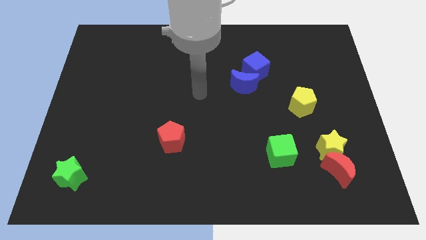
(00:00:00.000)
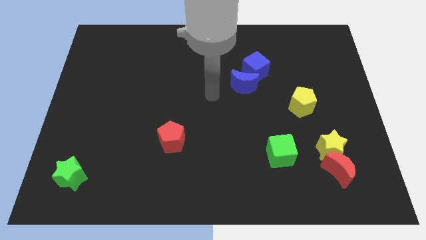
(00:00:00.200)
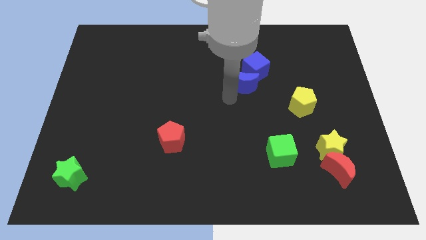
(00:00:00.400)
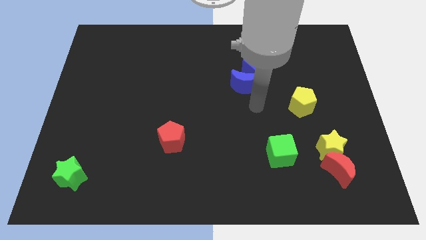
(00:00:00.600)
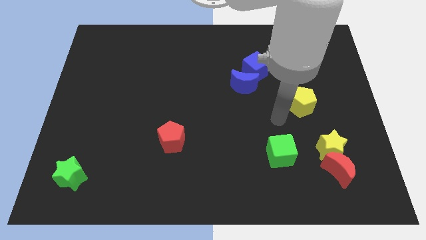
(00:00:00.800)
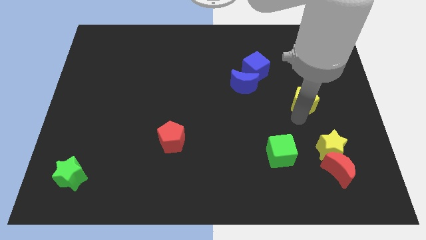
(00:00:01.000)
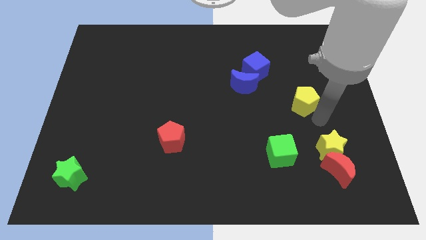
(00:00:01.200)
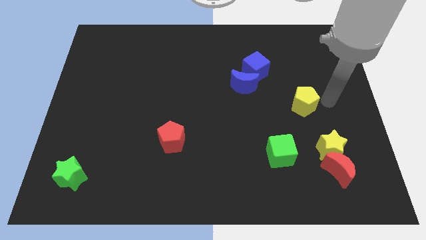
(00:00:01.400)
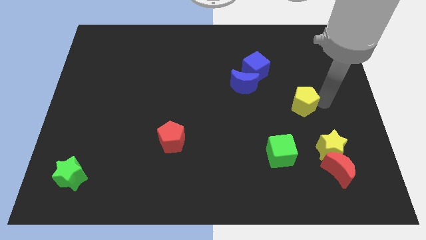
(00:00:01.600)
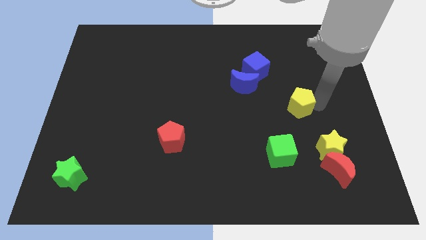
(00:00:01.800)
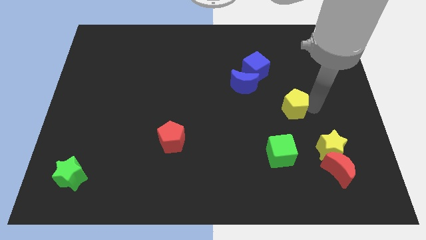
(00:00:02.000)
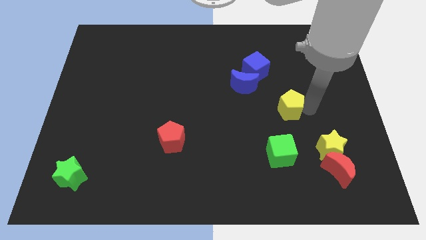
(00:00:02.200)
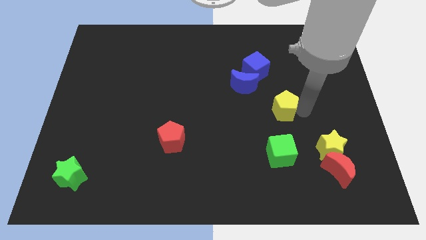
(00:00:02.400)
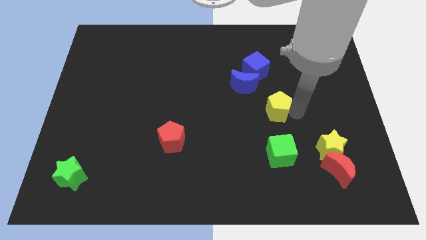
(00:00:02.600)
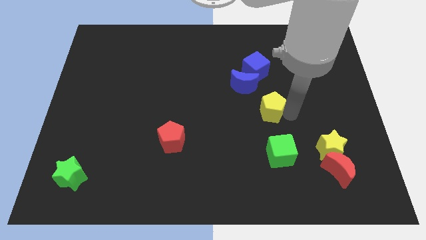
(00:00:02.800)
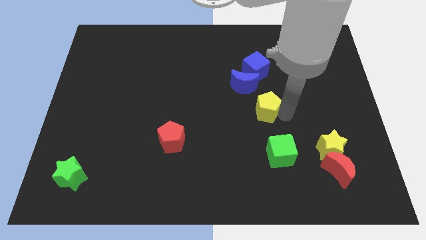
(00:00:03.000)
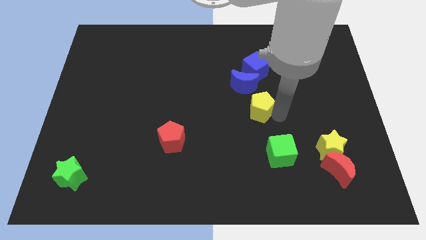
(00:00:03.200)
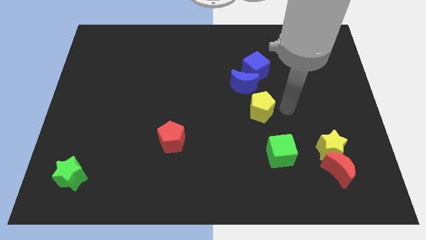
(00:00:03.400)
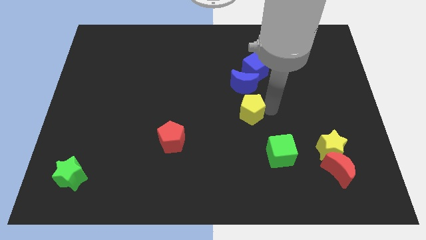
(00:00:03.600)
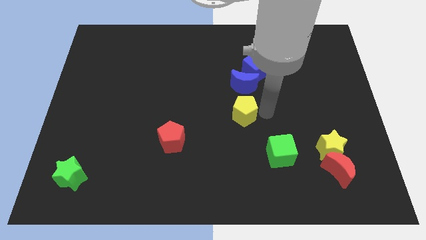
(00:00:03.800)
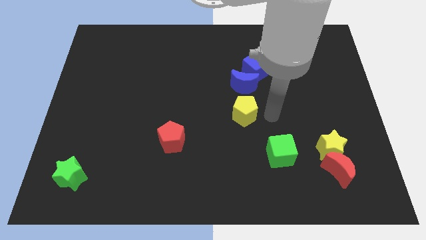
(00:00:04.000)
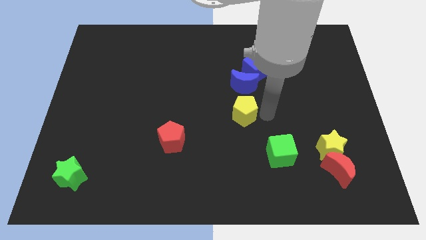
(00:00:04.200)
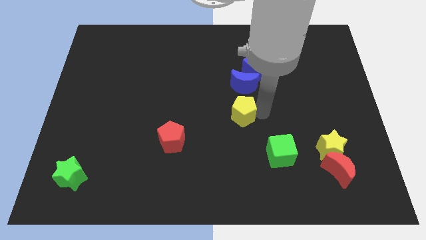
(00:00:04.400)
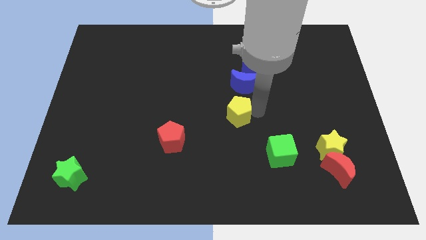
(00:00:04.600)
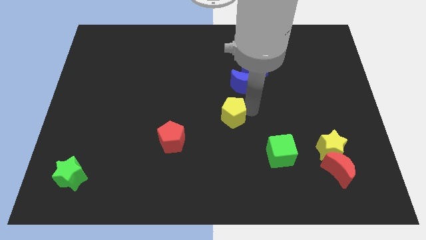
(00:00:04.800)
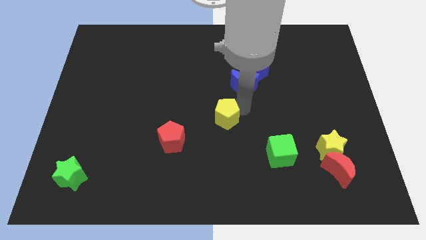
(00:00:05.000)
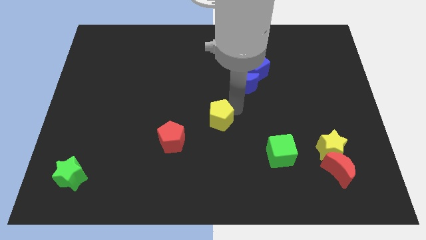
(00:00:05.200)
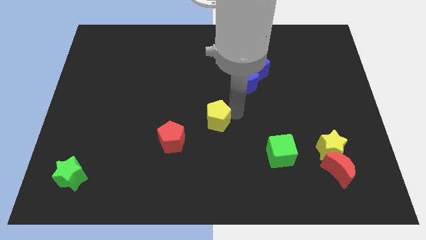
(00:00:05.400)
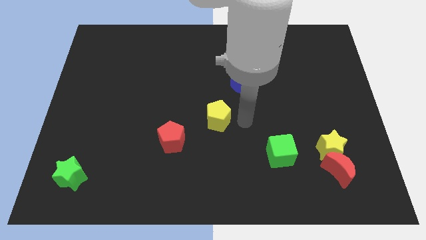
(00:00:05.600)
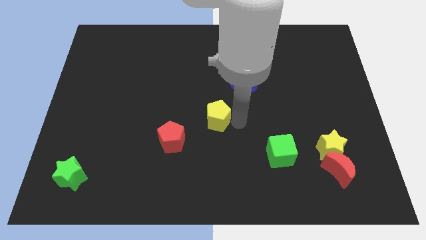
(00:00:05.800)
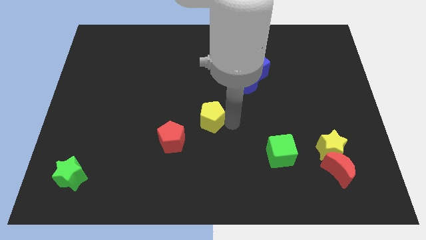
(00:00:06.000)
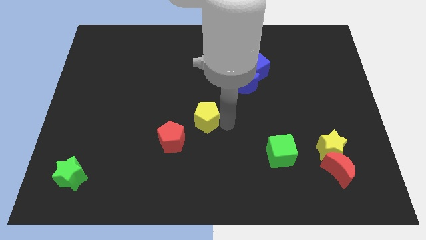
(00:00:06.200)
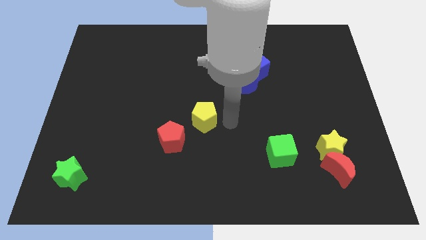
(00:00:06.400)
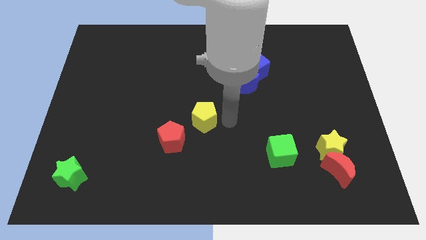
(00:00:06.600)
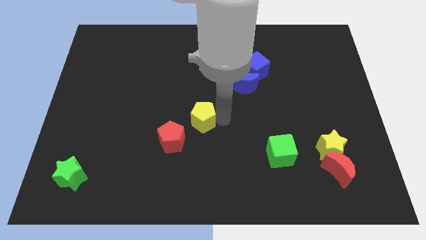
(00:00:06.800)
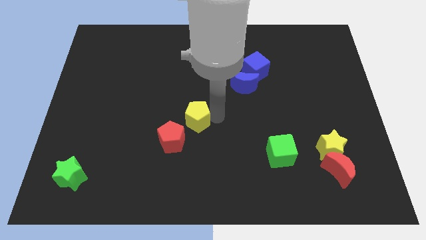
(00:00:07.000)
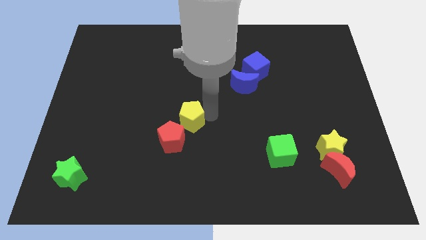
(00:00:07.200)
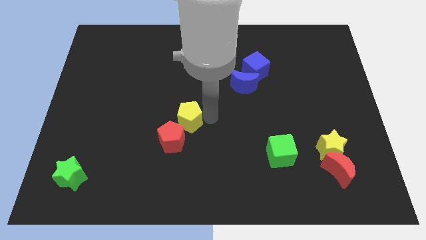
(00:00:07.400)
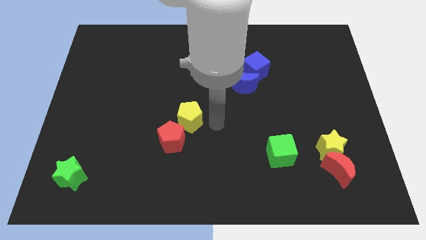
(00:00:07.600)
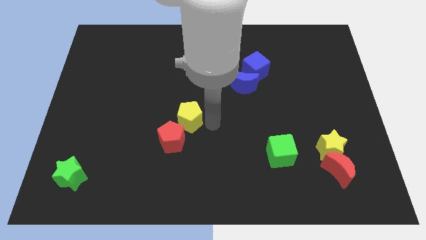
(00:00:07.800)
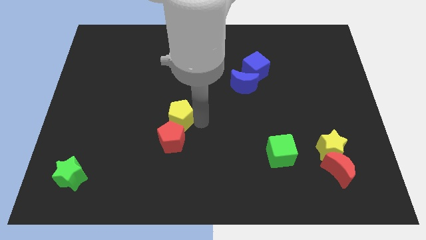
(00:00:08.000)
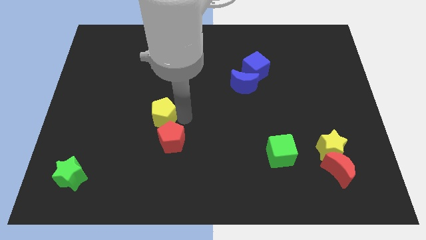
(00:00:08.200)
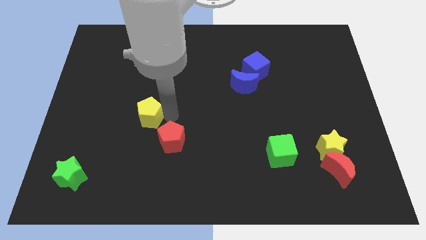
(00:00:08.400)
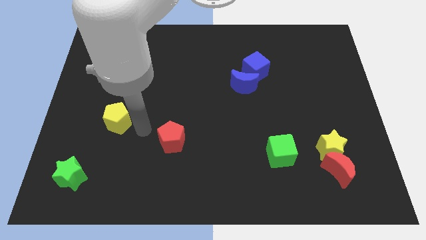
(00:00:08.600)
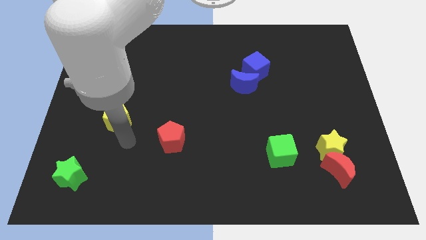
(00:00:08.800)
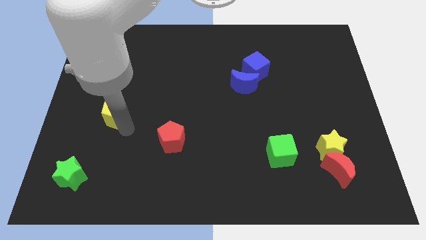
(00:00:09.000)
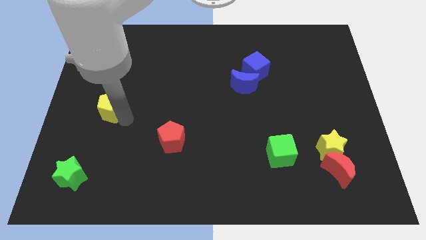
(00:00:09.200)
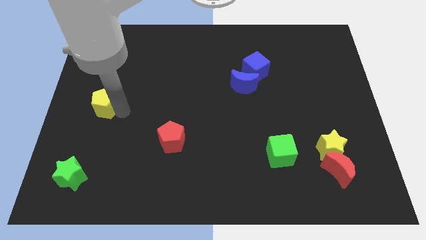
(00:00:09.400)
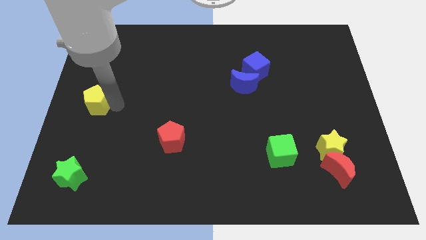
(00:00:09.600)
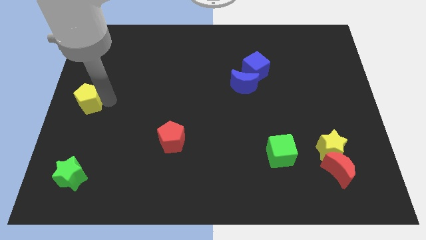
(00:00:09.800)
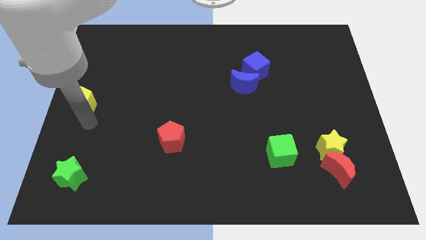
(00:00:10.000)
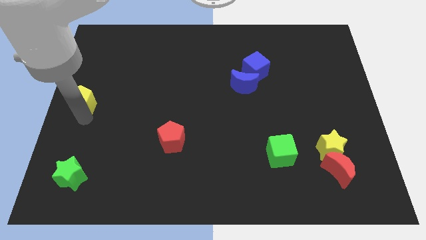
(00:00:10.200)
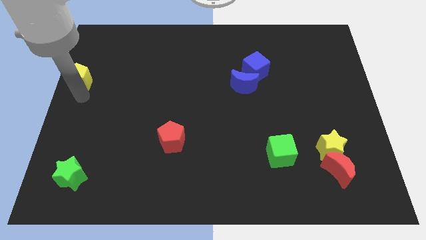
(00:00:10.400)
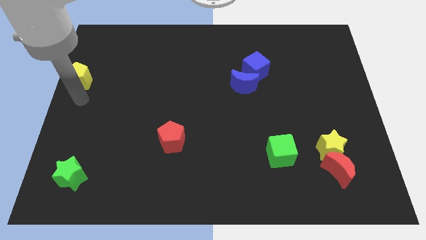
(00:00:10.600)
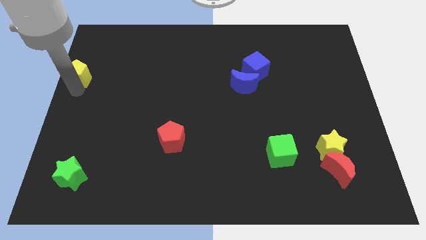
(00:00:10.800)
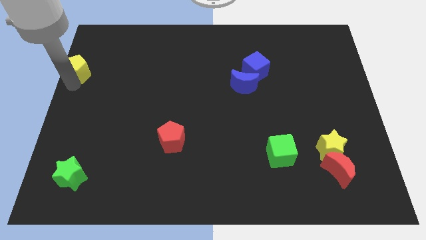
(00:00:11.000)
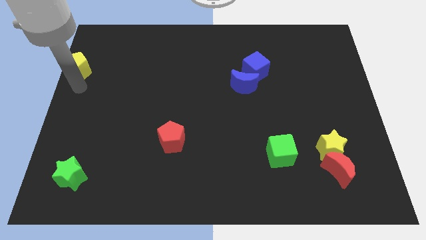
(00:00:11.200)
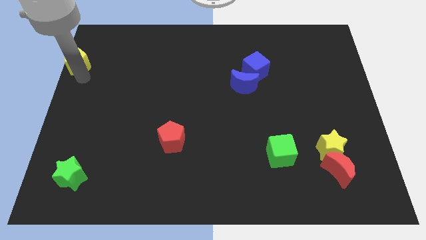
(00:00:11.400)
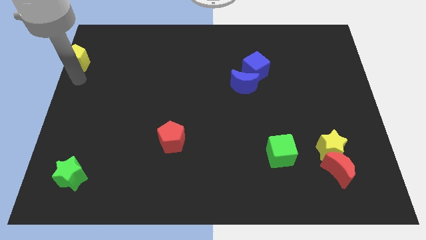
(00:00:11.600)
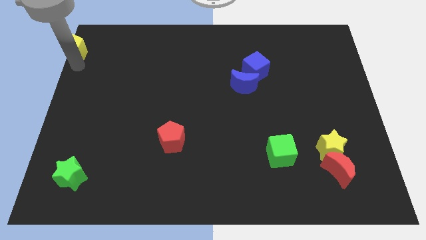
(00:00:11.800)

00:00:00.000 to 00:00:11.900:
slide the yellow pentagon to the top left

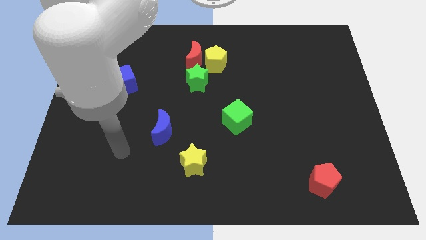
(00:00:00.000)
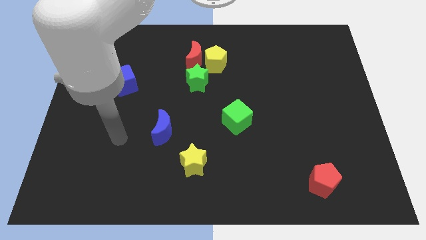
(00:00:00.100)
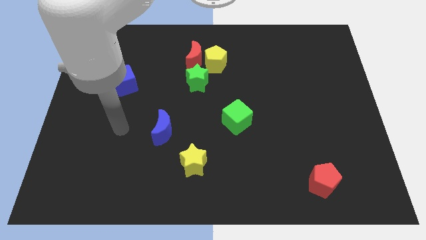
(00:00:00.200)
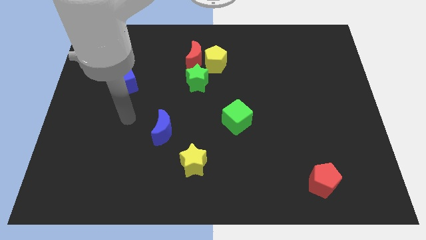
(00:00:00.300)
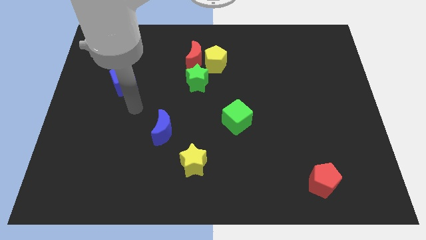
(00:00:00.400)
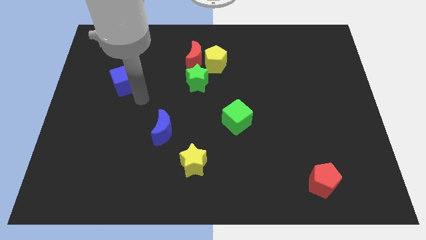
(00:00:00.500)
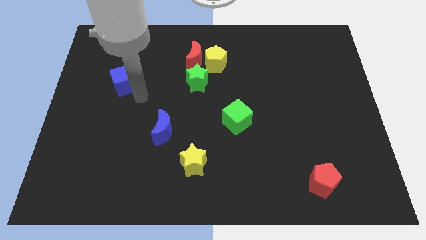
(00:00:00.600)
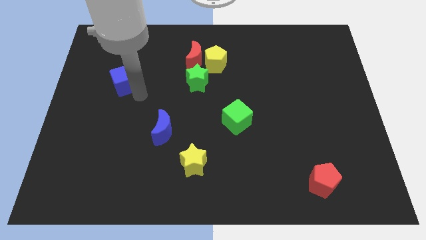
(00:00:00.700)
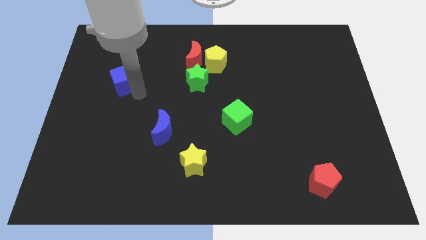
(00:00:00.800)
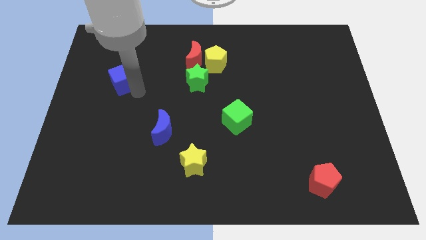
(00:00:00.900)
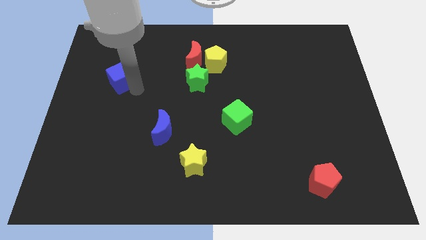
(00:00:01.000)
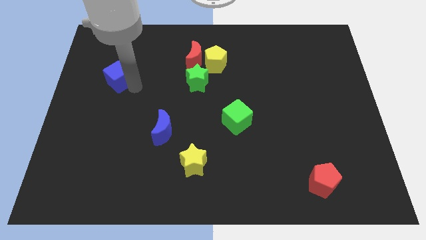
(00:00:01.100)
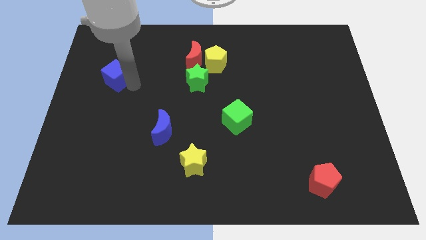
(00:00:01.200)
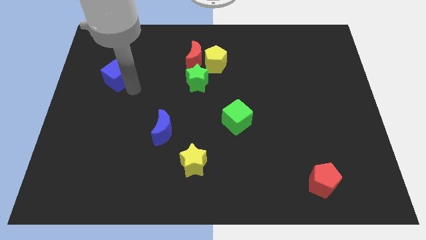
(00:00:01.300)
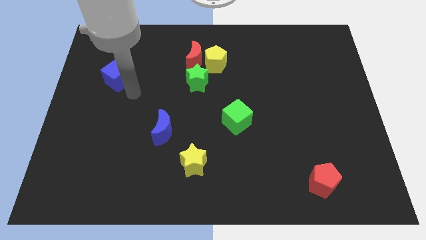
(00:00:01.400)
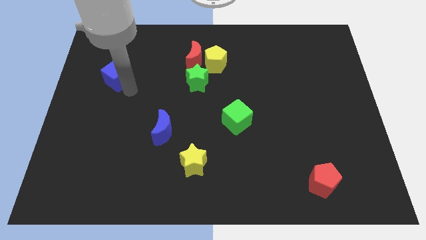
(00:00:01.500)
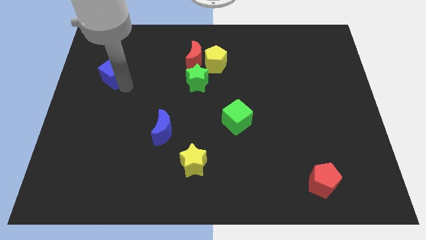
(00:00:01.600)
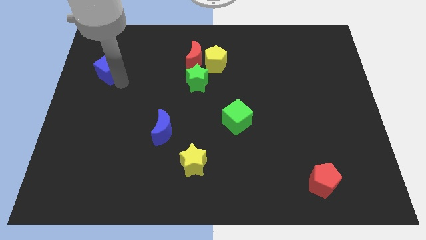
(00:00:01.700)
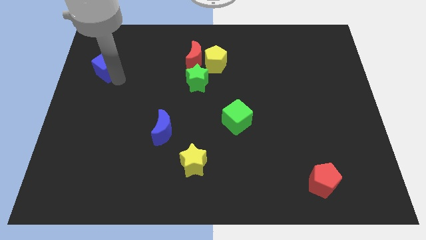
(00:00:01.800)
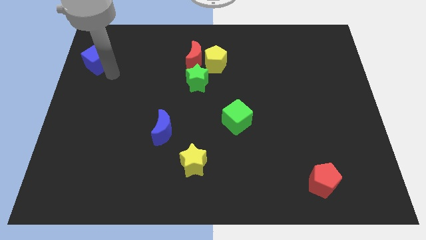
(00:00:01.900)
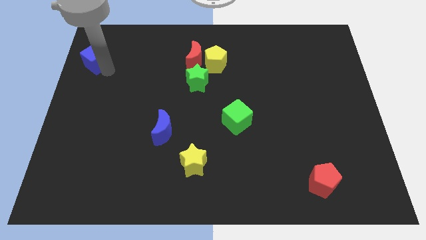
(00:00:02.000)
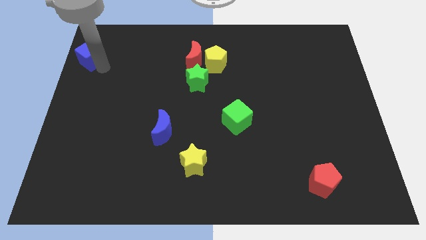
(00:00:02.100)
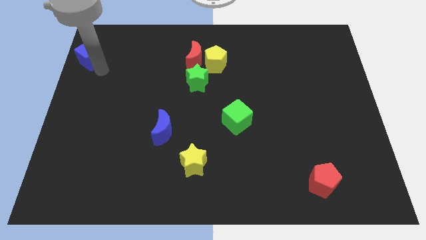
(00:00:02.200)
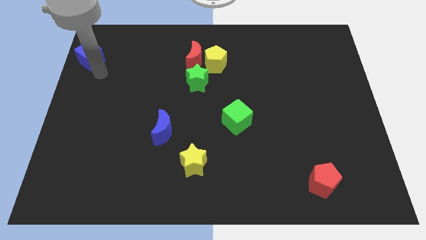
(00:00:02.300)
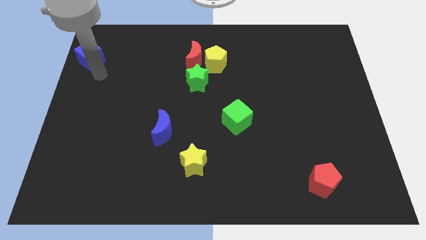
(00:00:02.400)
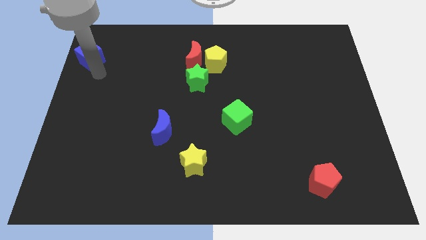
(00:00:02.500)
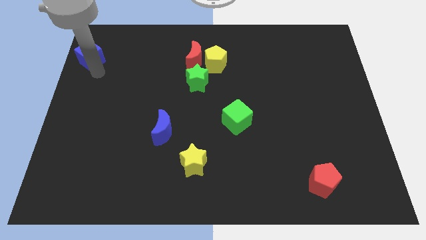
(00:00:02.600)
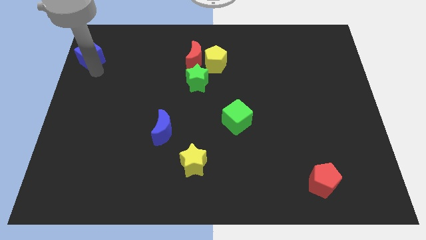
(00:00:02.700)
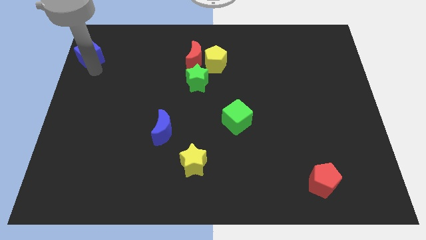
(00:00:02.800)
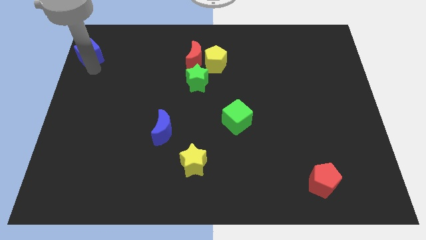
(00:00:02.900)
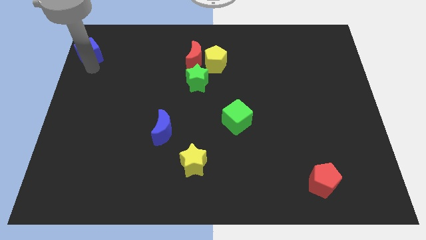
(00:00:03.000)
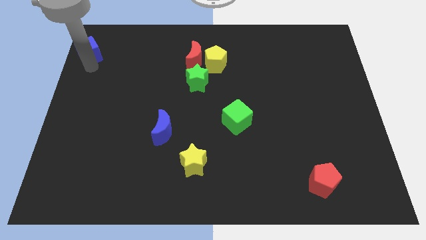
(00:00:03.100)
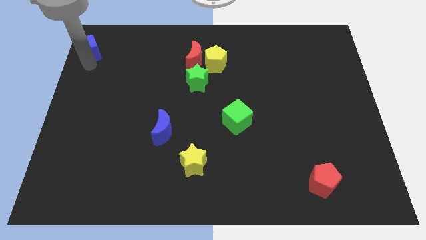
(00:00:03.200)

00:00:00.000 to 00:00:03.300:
put the blue cube to the top left
